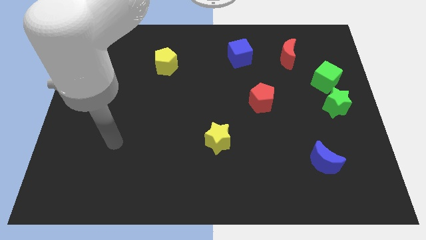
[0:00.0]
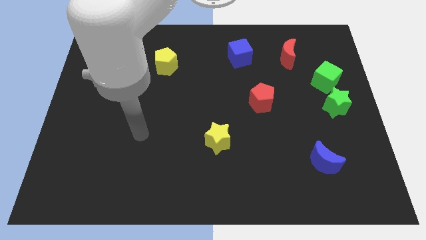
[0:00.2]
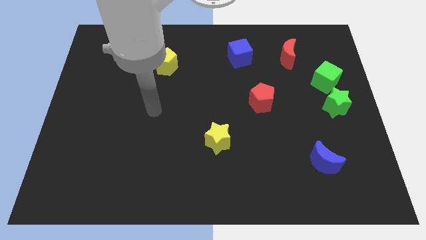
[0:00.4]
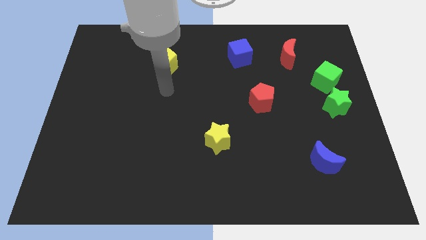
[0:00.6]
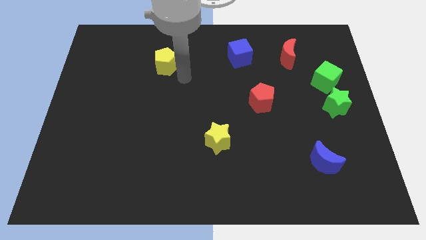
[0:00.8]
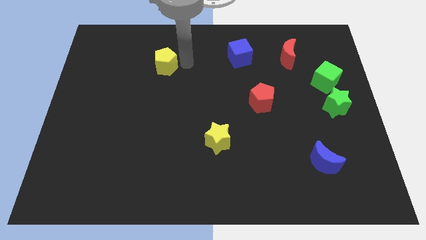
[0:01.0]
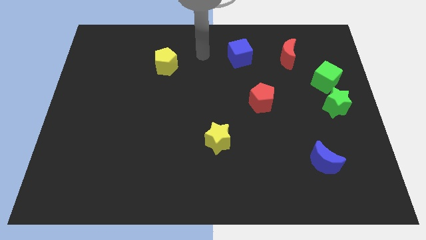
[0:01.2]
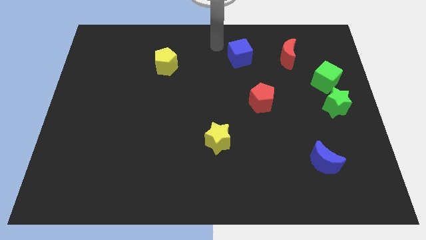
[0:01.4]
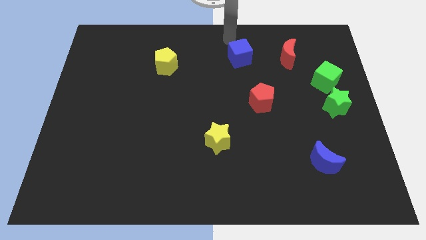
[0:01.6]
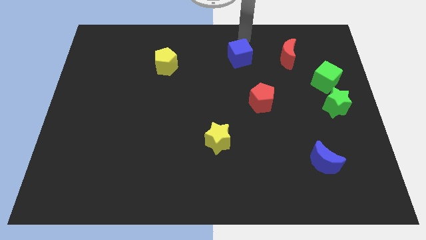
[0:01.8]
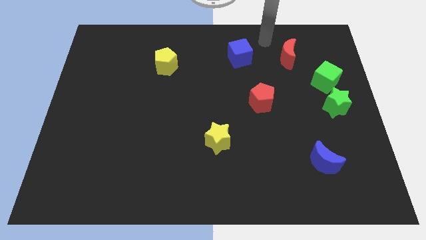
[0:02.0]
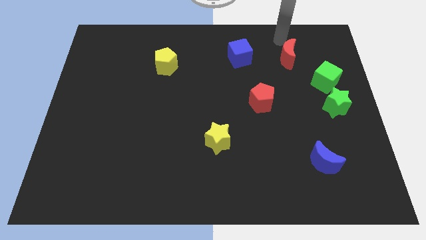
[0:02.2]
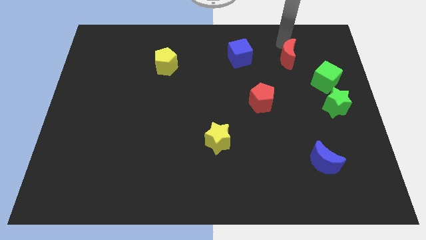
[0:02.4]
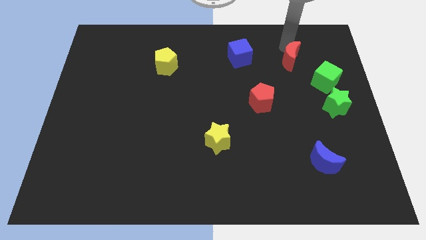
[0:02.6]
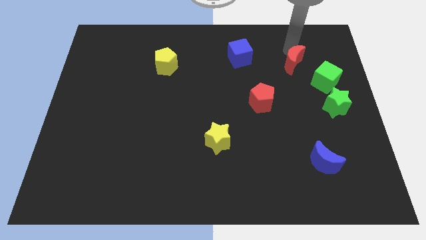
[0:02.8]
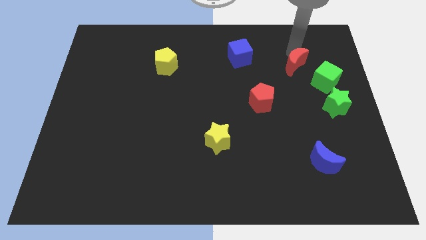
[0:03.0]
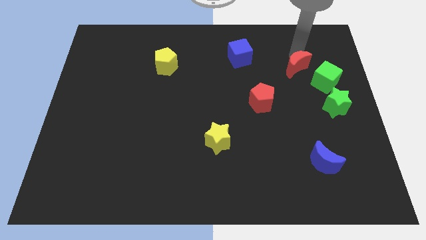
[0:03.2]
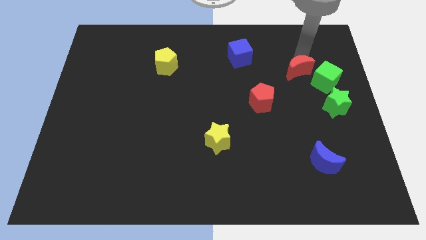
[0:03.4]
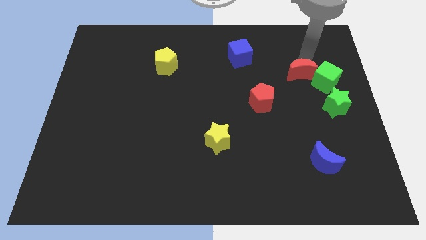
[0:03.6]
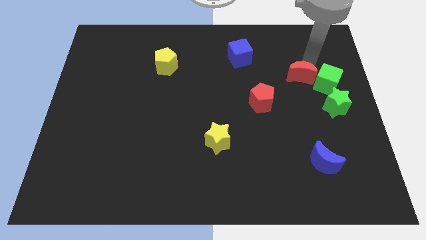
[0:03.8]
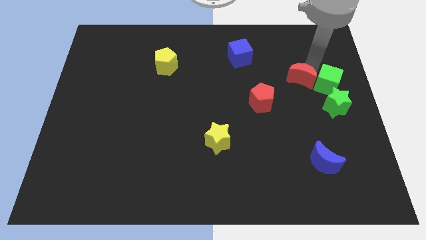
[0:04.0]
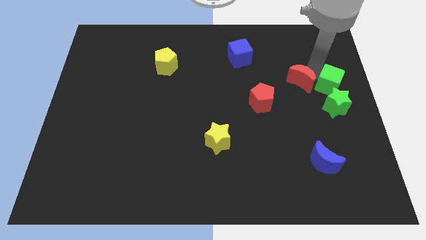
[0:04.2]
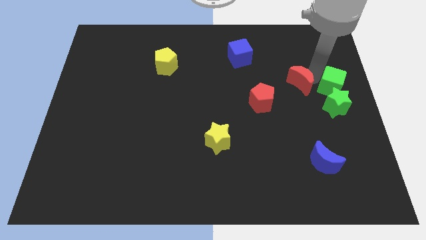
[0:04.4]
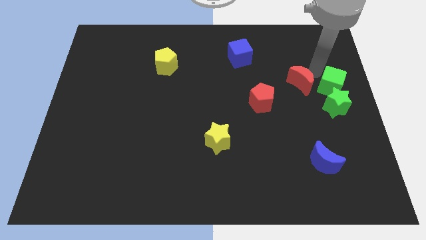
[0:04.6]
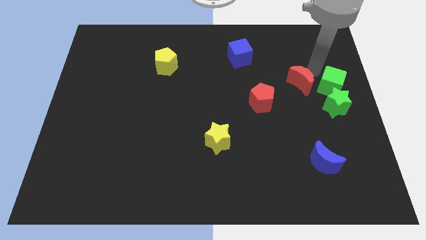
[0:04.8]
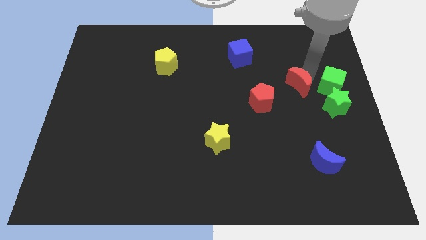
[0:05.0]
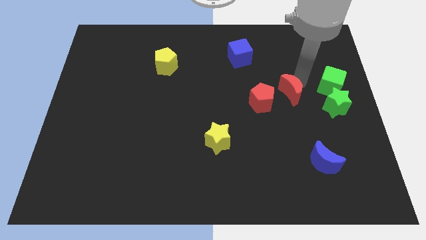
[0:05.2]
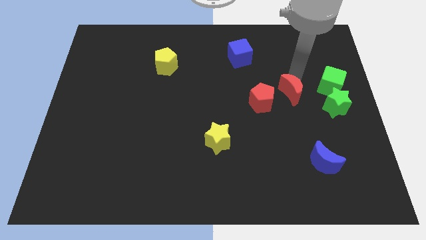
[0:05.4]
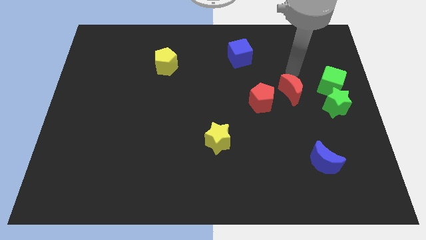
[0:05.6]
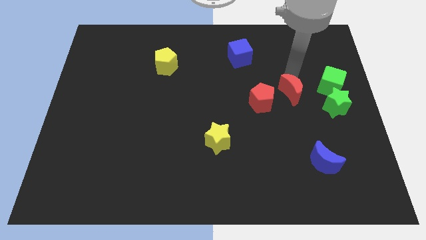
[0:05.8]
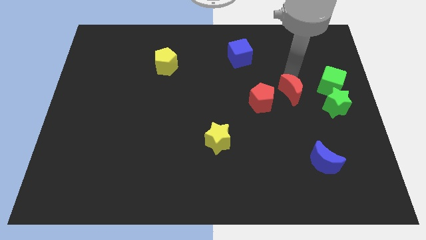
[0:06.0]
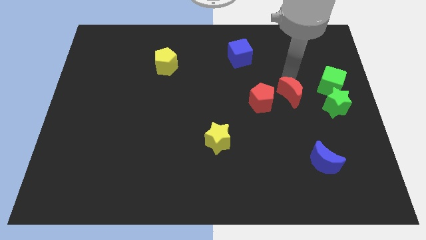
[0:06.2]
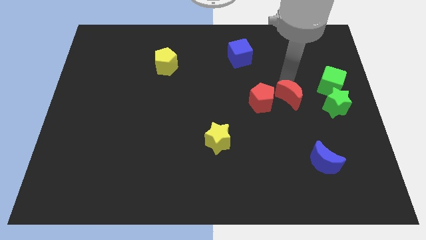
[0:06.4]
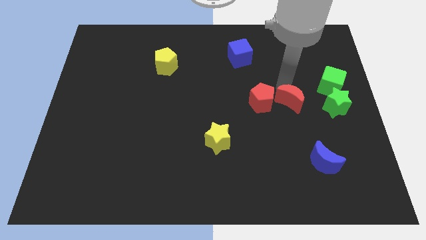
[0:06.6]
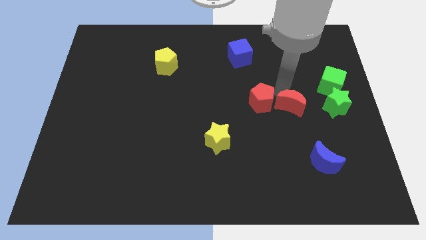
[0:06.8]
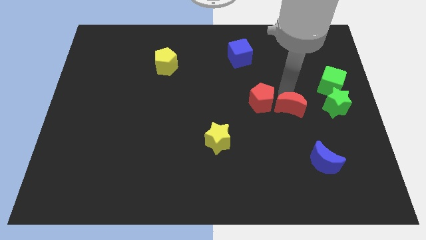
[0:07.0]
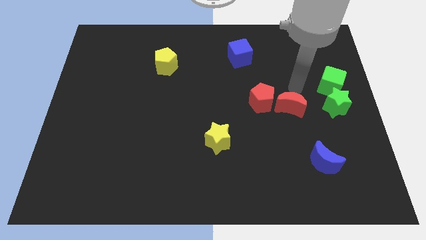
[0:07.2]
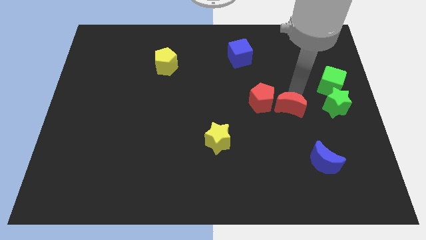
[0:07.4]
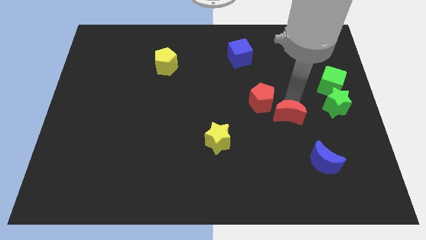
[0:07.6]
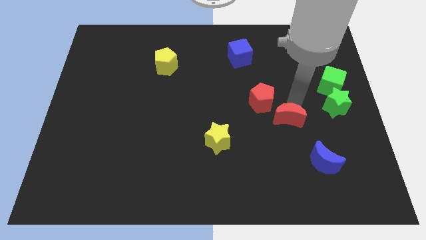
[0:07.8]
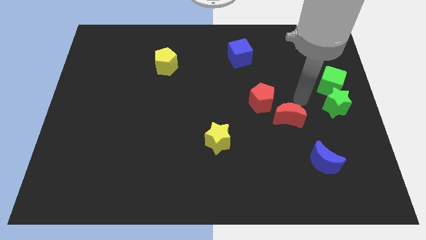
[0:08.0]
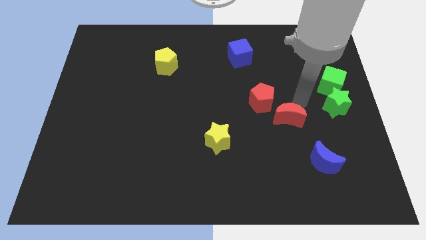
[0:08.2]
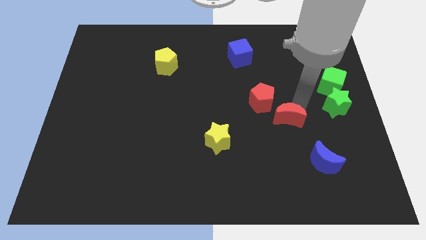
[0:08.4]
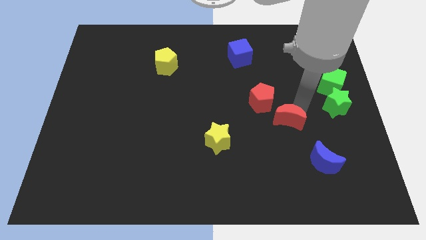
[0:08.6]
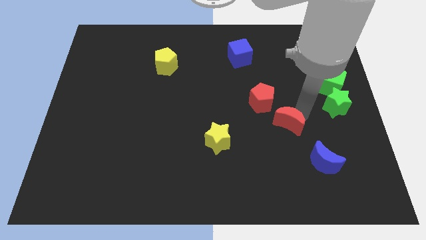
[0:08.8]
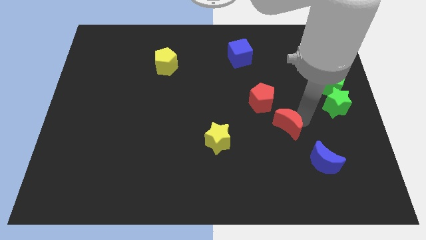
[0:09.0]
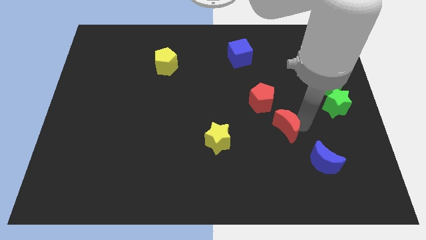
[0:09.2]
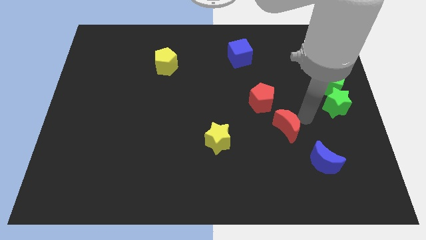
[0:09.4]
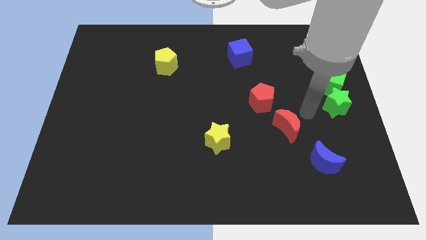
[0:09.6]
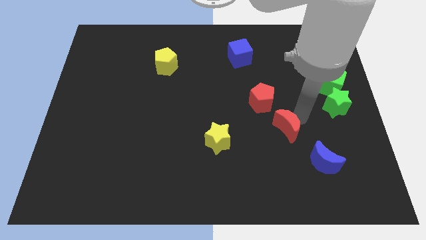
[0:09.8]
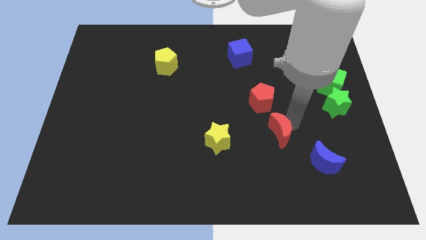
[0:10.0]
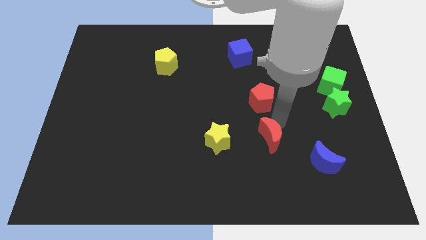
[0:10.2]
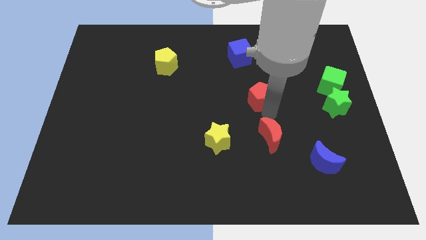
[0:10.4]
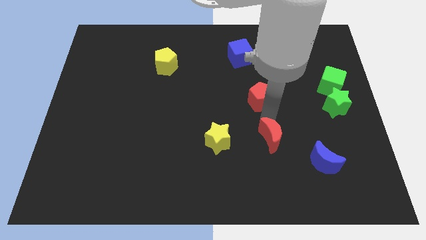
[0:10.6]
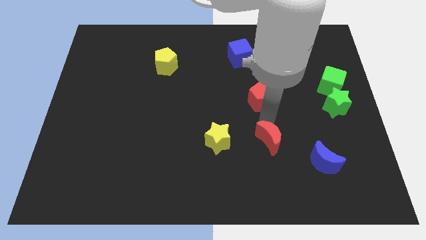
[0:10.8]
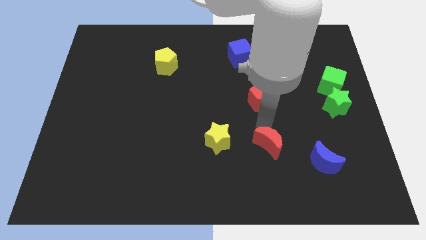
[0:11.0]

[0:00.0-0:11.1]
move the red moon to the left of the blue moon

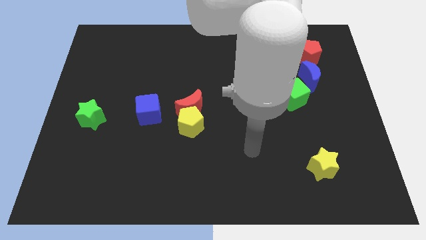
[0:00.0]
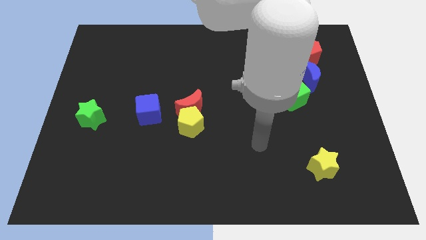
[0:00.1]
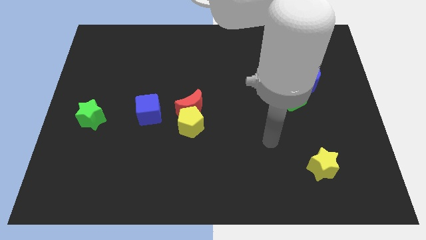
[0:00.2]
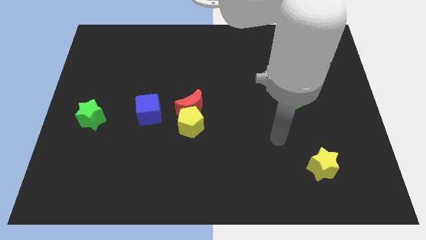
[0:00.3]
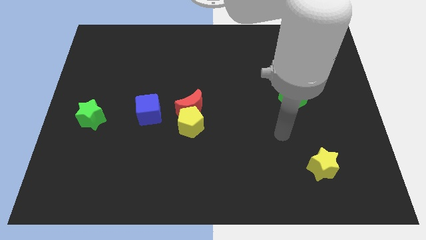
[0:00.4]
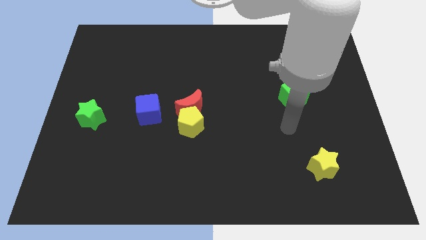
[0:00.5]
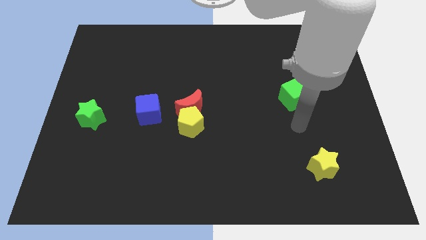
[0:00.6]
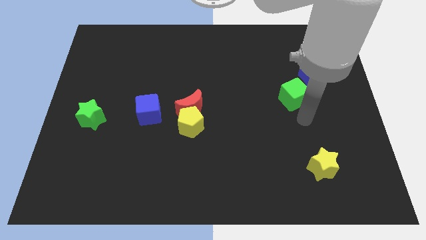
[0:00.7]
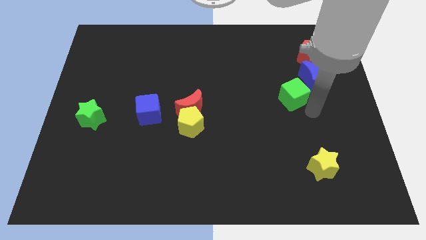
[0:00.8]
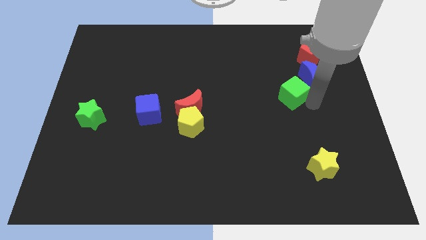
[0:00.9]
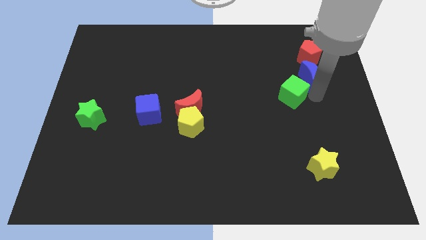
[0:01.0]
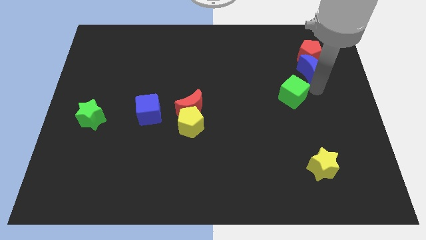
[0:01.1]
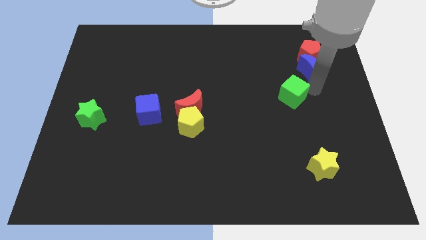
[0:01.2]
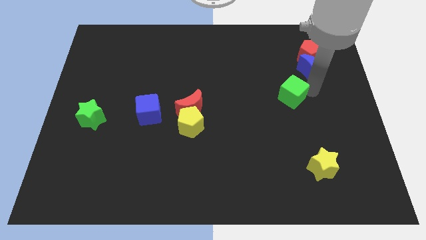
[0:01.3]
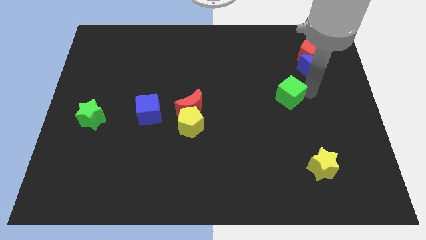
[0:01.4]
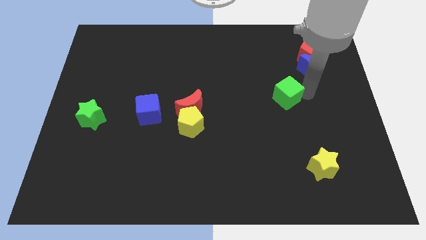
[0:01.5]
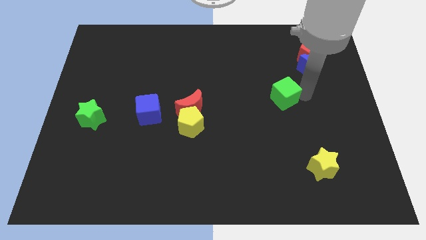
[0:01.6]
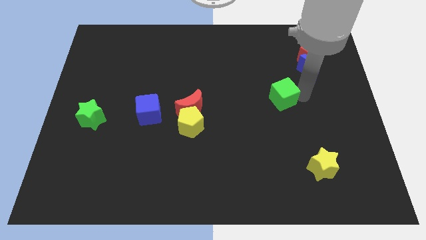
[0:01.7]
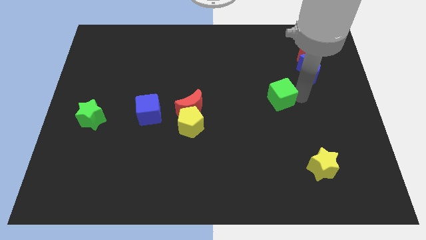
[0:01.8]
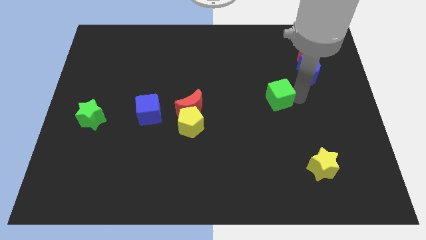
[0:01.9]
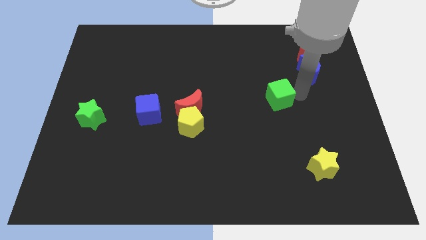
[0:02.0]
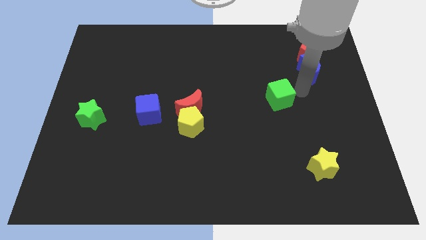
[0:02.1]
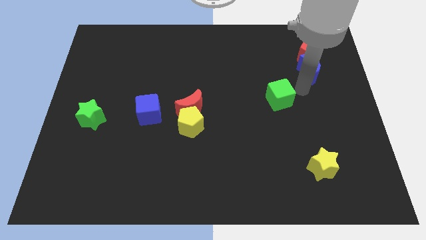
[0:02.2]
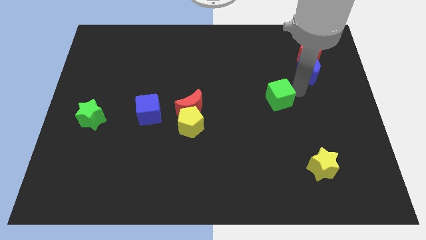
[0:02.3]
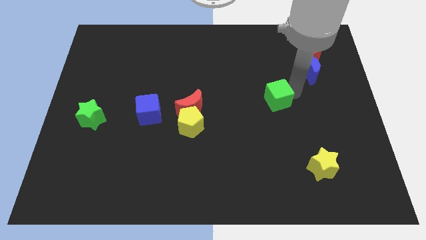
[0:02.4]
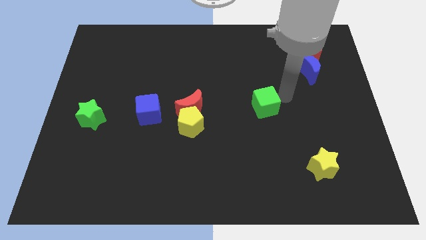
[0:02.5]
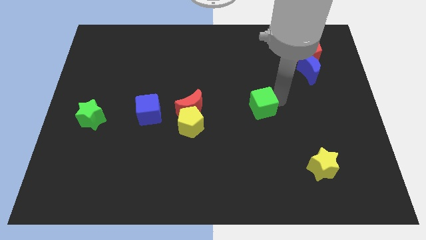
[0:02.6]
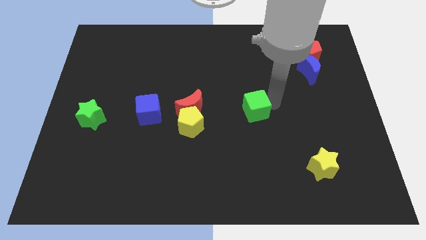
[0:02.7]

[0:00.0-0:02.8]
move the green cube to the right of the red moon
